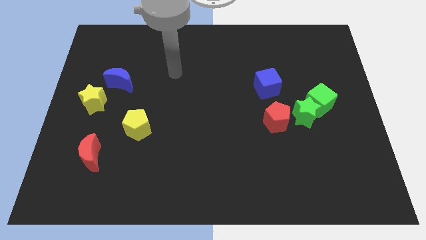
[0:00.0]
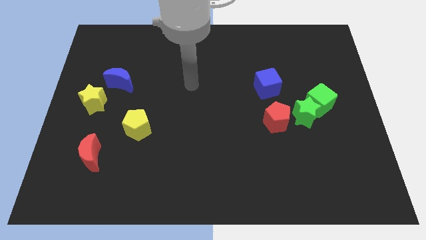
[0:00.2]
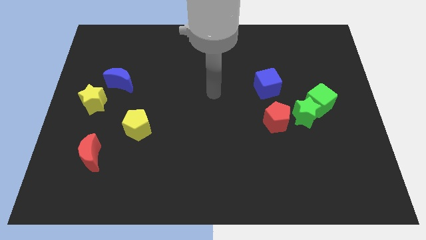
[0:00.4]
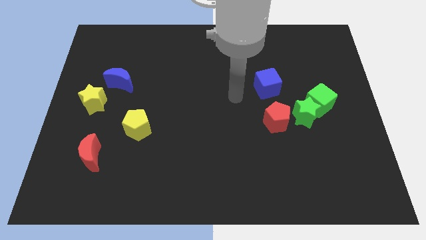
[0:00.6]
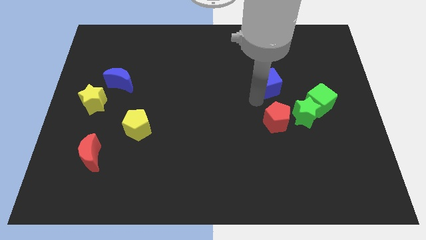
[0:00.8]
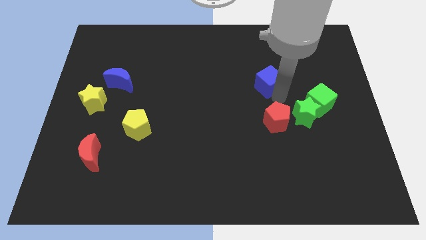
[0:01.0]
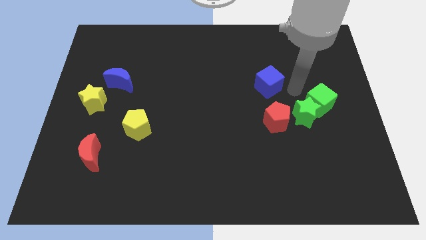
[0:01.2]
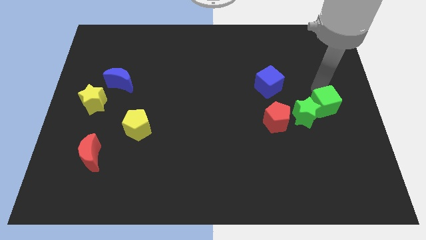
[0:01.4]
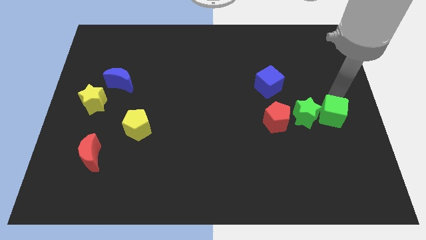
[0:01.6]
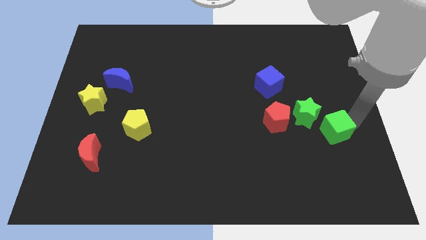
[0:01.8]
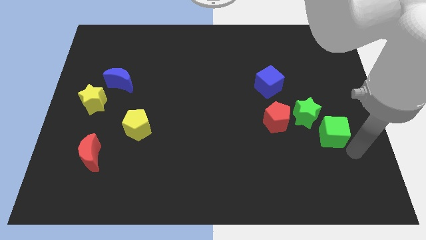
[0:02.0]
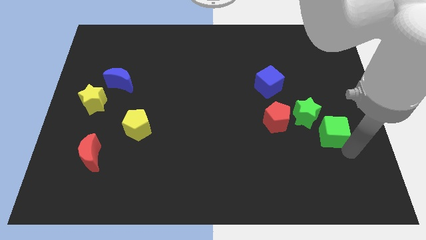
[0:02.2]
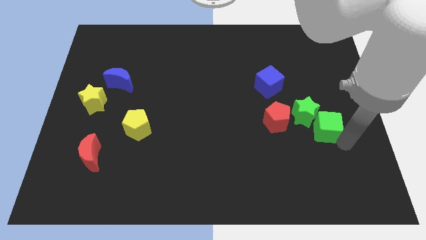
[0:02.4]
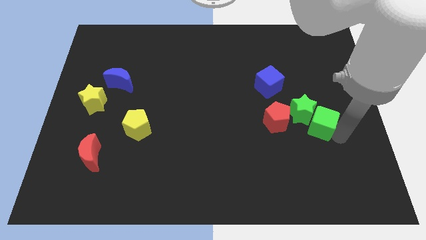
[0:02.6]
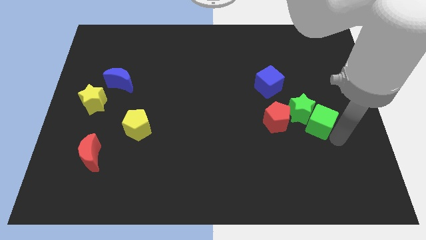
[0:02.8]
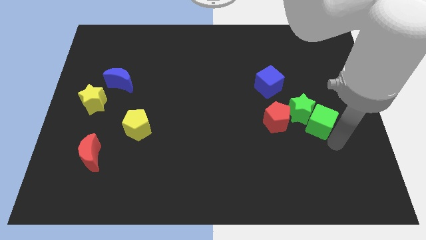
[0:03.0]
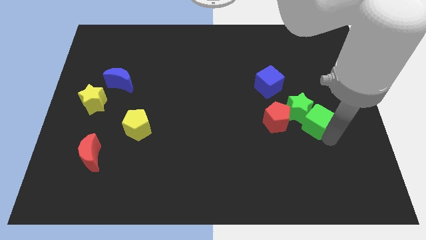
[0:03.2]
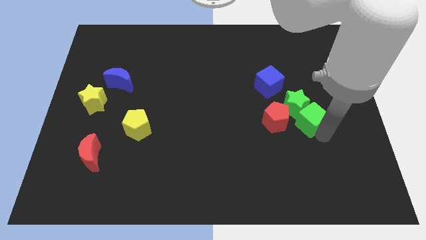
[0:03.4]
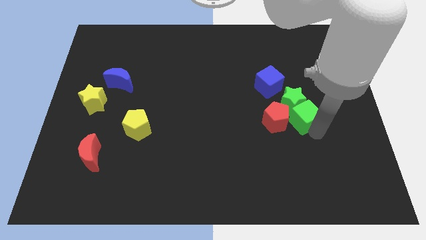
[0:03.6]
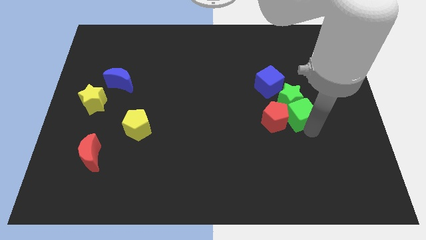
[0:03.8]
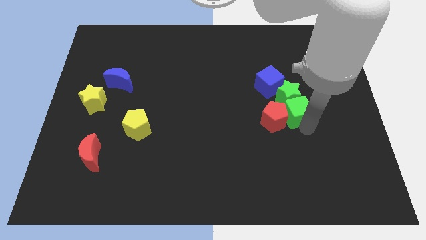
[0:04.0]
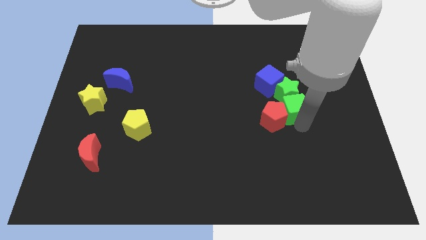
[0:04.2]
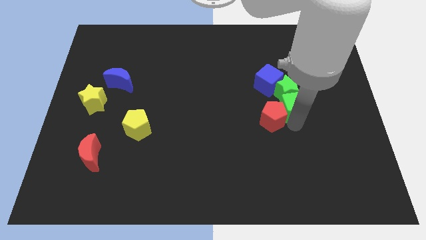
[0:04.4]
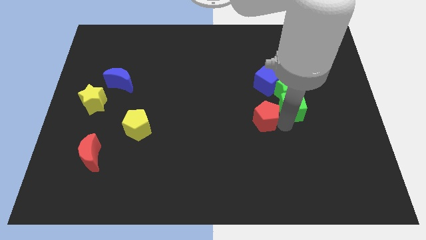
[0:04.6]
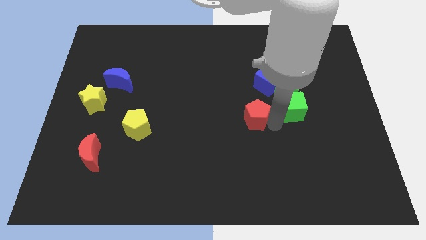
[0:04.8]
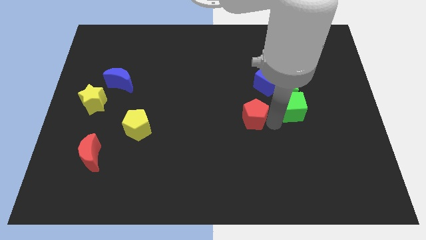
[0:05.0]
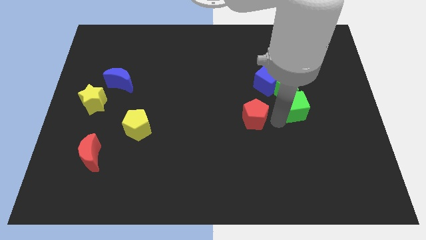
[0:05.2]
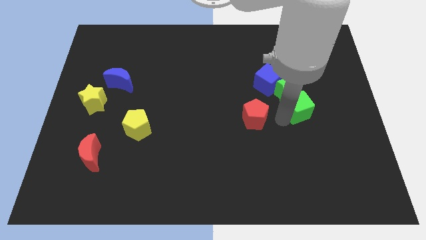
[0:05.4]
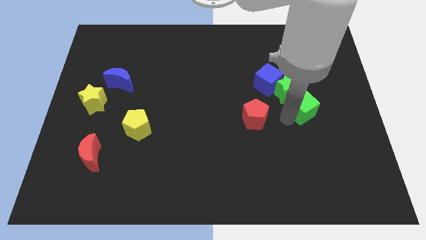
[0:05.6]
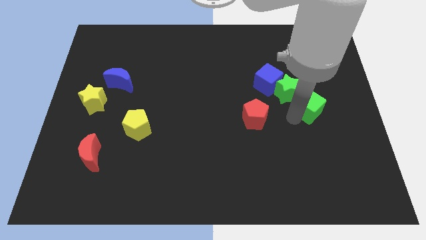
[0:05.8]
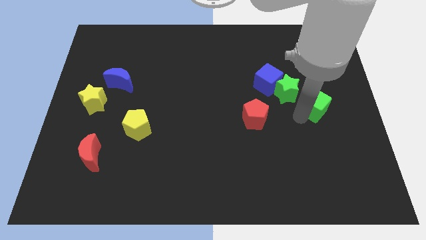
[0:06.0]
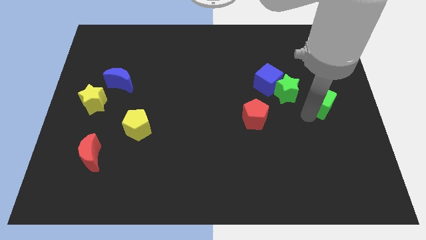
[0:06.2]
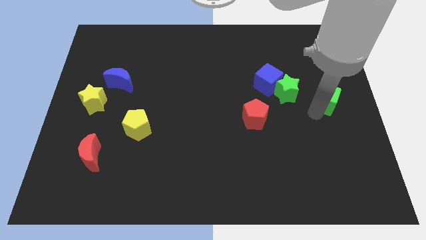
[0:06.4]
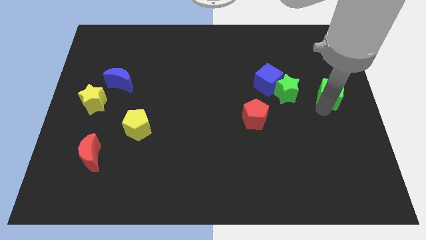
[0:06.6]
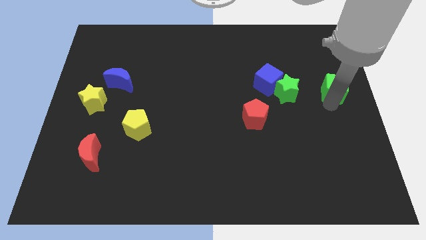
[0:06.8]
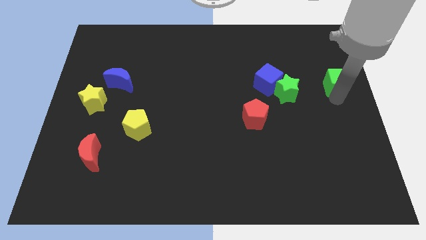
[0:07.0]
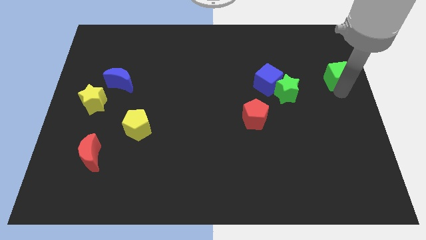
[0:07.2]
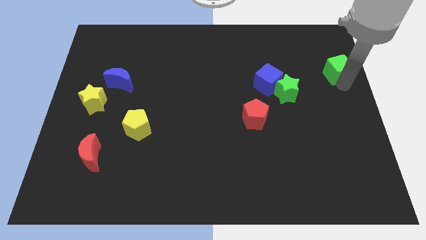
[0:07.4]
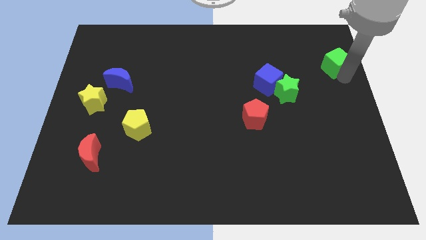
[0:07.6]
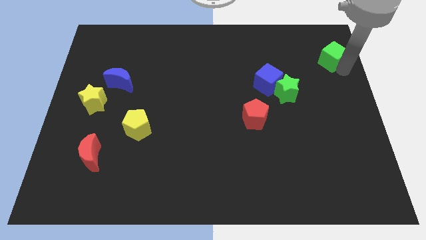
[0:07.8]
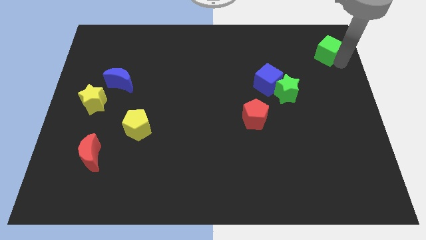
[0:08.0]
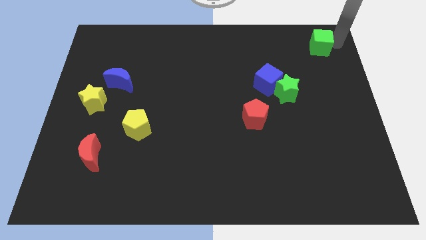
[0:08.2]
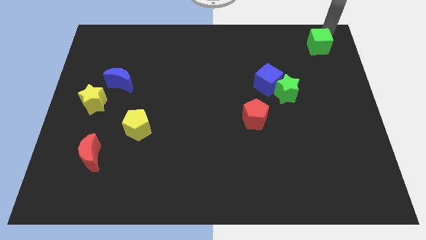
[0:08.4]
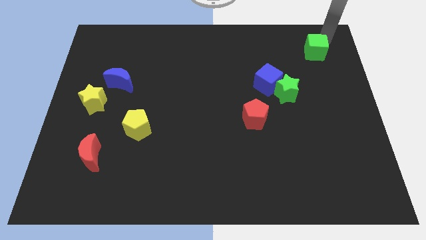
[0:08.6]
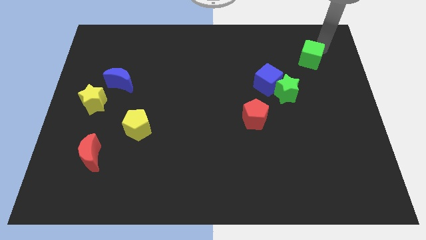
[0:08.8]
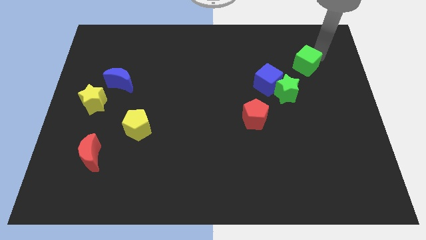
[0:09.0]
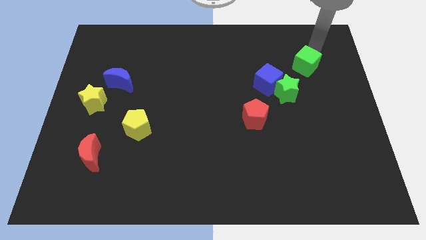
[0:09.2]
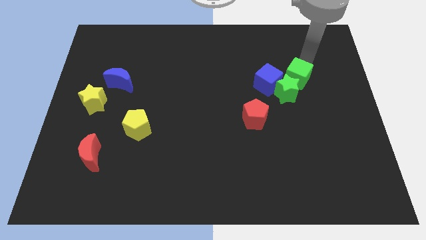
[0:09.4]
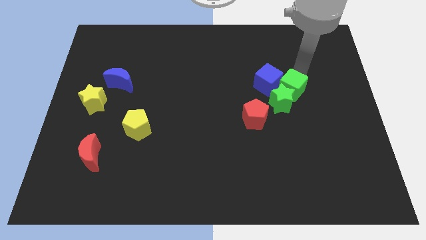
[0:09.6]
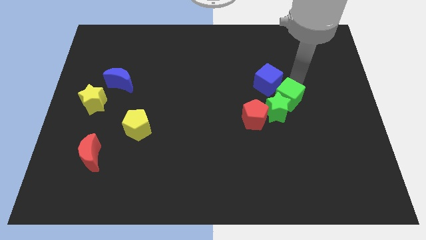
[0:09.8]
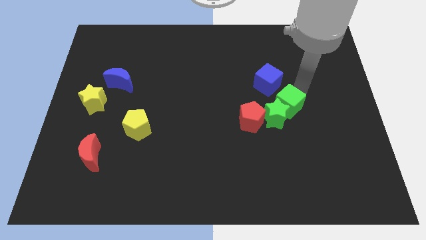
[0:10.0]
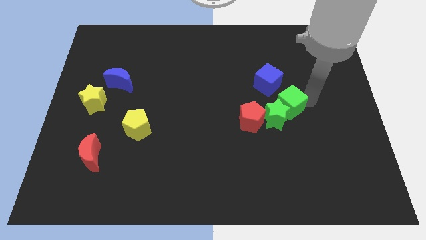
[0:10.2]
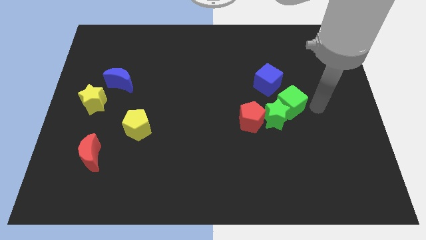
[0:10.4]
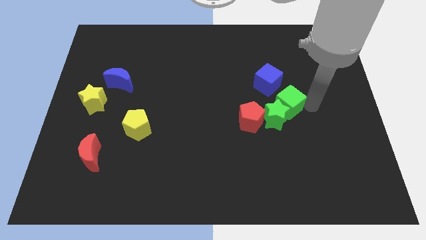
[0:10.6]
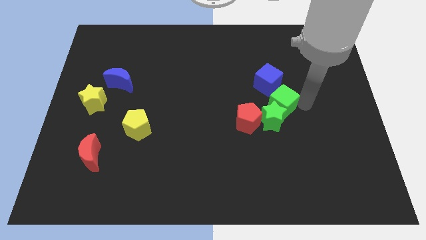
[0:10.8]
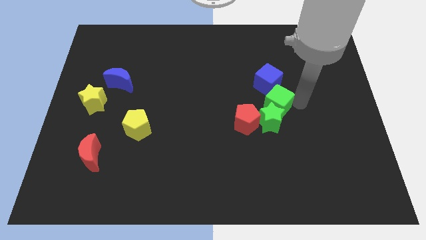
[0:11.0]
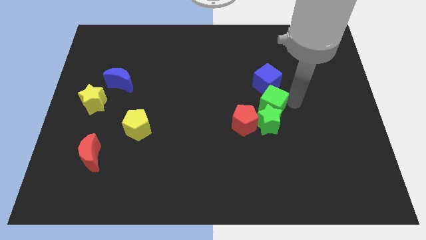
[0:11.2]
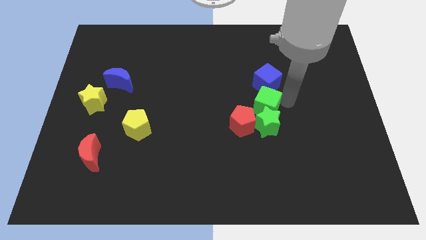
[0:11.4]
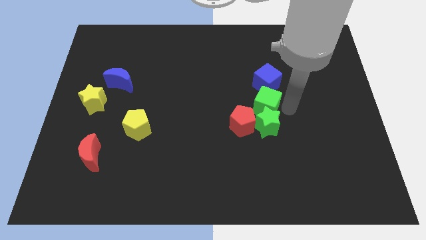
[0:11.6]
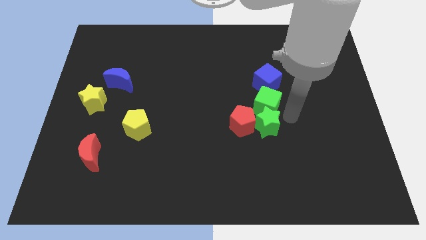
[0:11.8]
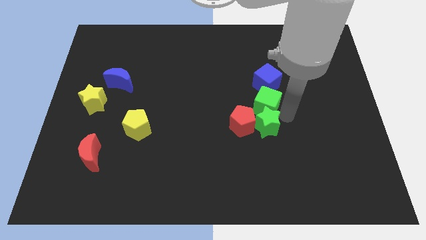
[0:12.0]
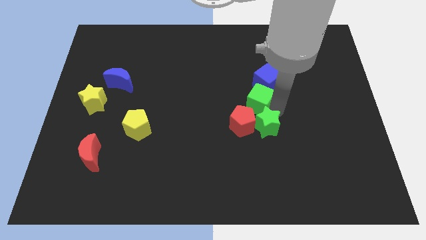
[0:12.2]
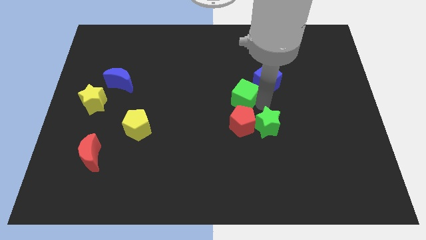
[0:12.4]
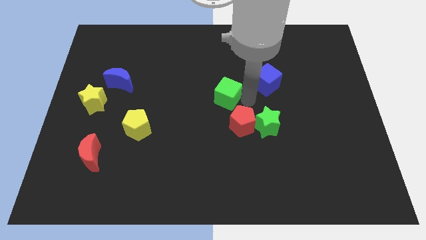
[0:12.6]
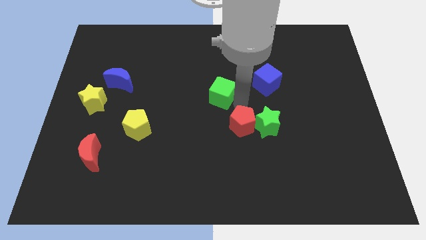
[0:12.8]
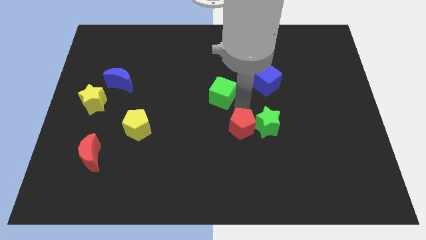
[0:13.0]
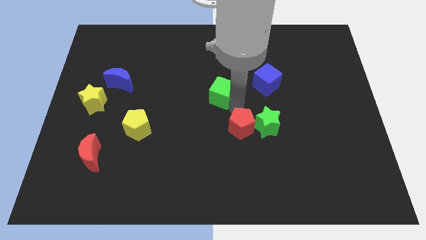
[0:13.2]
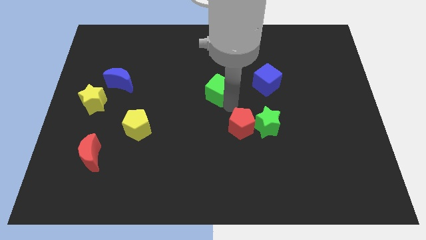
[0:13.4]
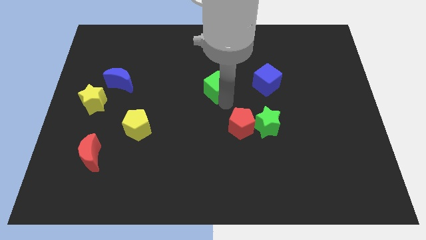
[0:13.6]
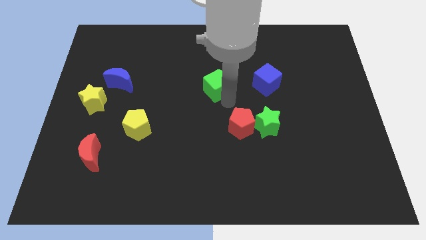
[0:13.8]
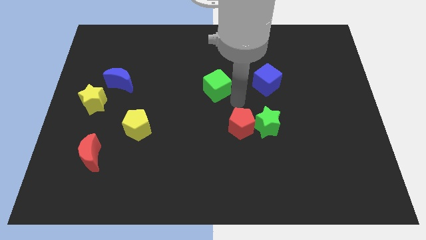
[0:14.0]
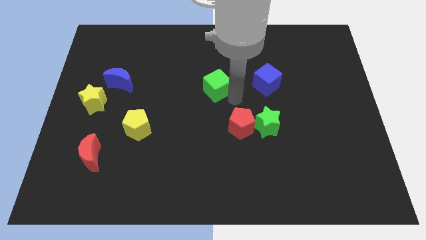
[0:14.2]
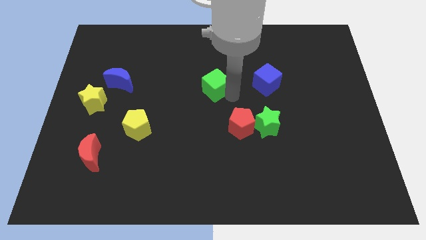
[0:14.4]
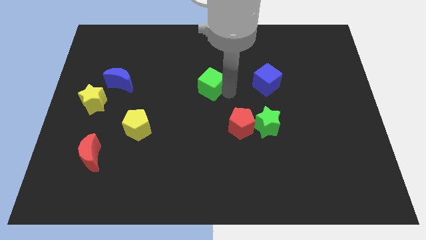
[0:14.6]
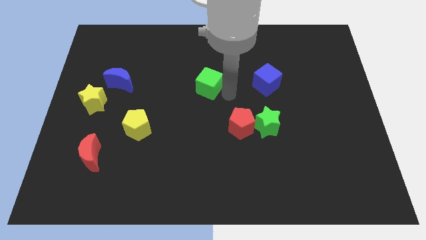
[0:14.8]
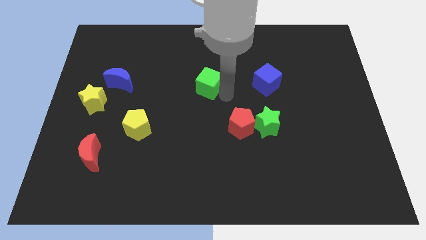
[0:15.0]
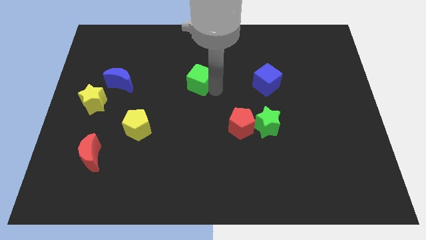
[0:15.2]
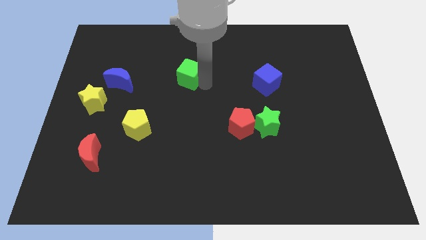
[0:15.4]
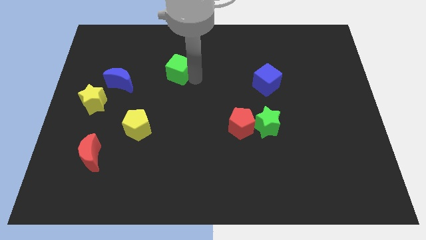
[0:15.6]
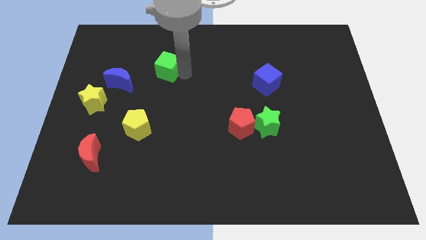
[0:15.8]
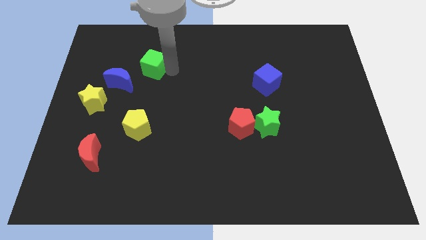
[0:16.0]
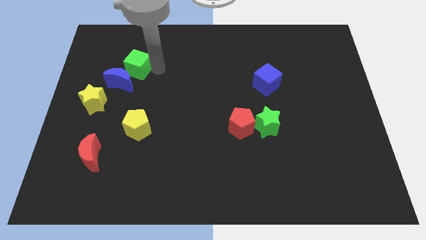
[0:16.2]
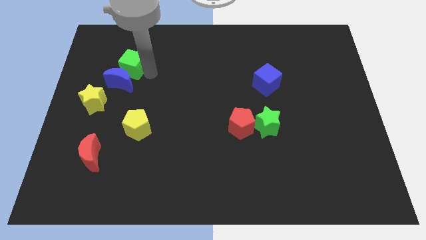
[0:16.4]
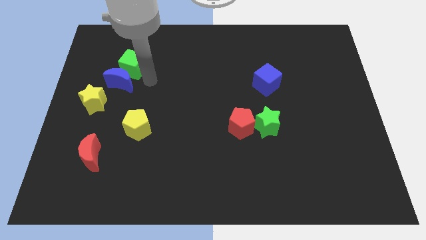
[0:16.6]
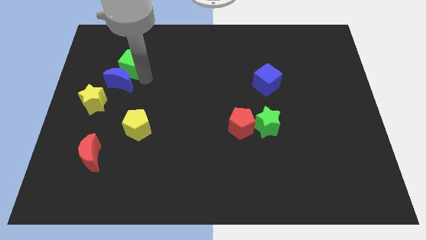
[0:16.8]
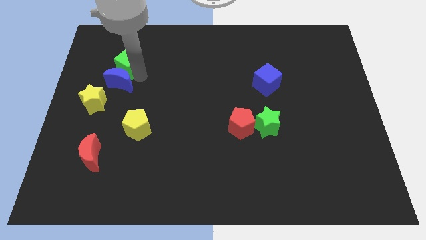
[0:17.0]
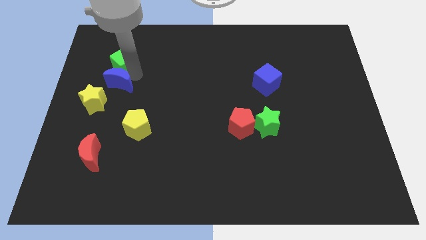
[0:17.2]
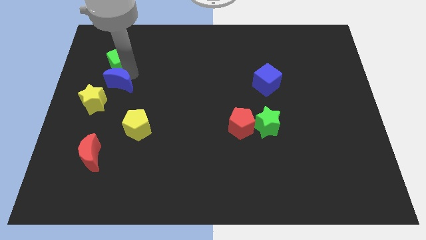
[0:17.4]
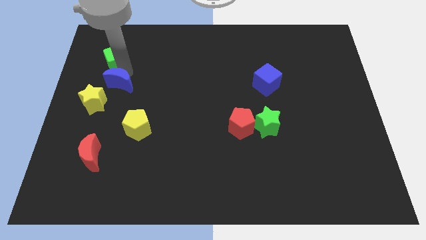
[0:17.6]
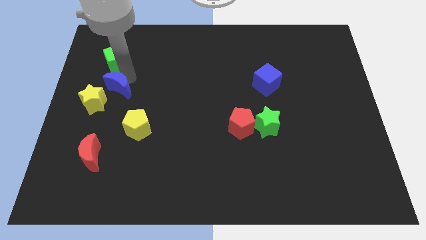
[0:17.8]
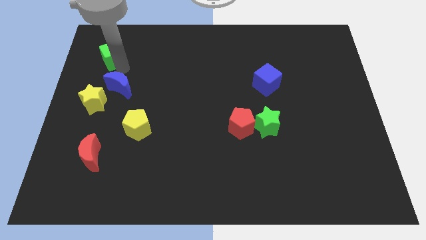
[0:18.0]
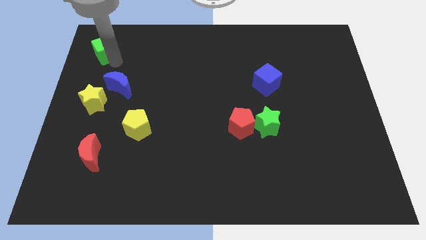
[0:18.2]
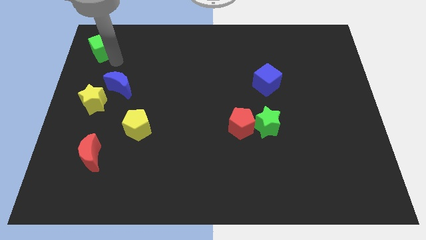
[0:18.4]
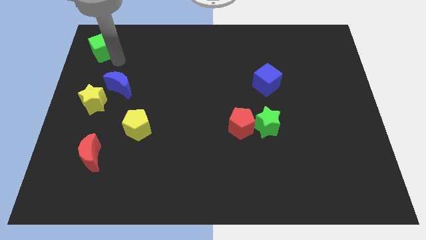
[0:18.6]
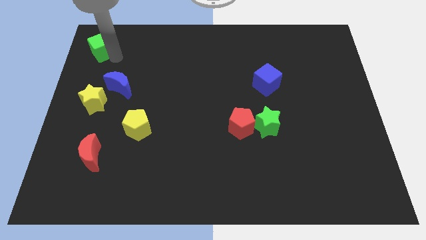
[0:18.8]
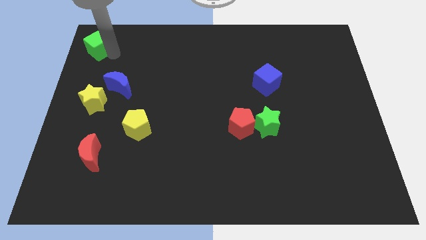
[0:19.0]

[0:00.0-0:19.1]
move the green cube to the upper left corner
